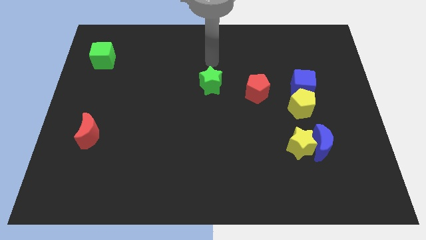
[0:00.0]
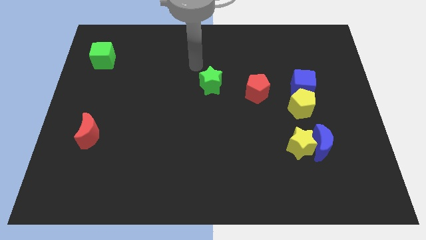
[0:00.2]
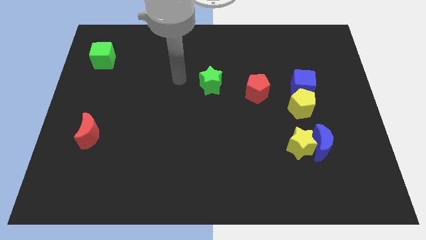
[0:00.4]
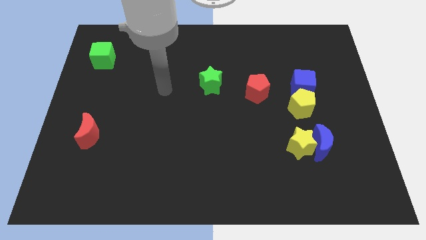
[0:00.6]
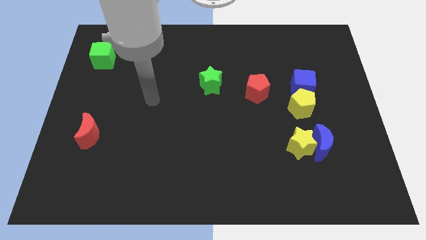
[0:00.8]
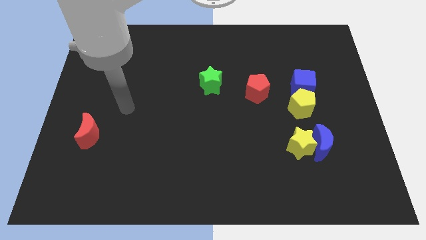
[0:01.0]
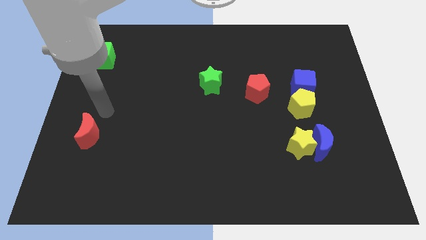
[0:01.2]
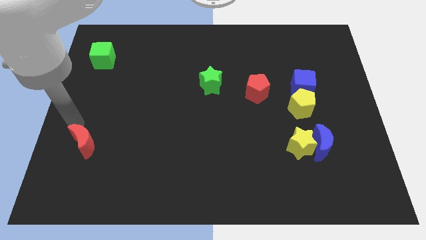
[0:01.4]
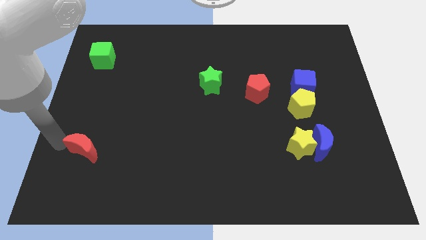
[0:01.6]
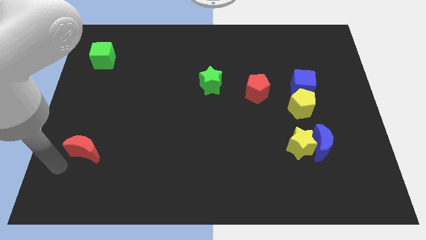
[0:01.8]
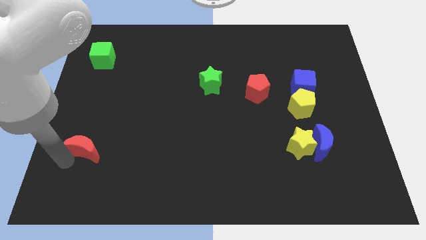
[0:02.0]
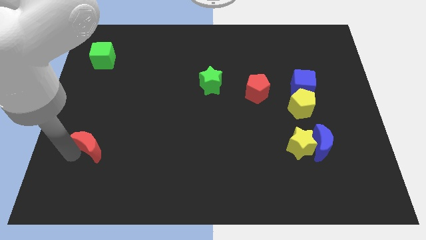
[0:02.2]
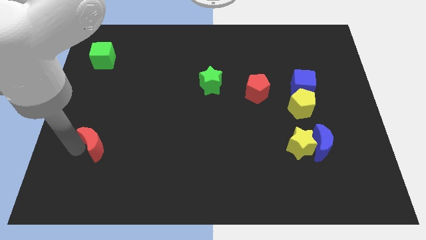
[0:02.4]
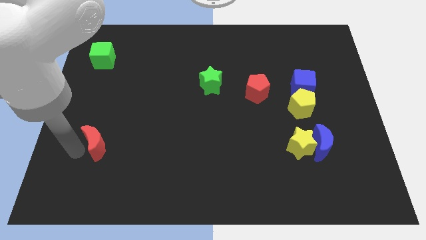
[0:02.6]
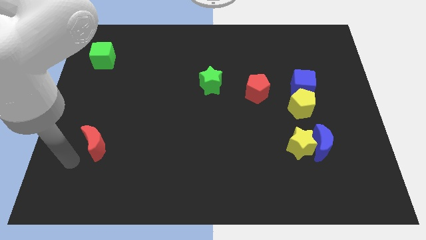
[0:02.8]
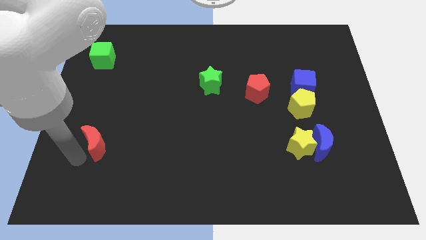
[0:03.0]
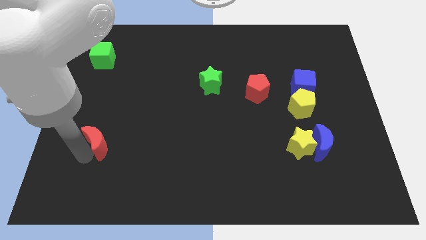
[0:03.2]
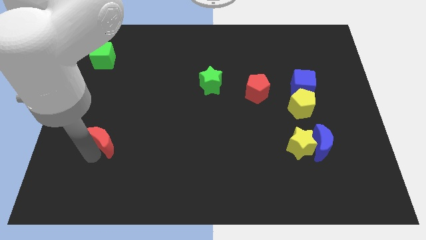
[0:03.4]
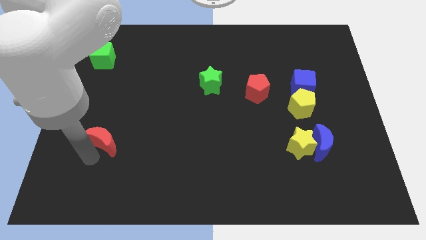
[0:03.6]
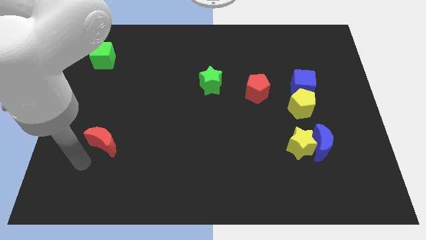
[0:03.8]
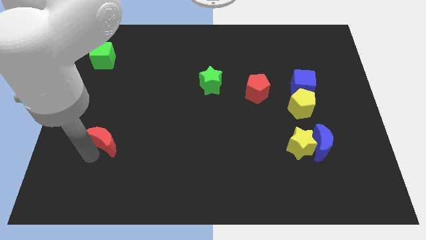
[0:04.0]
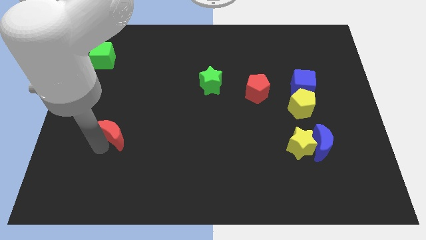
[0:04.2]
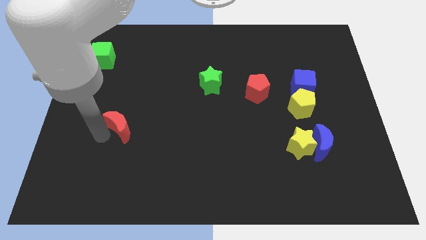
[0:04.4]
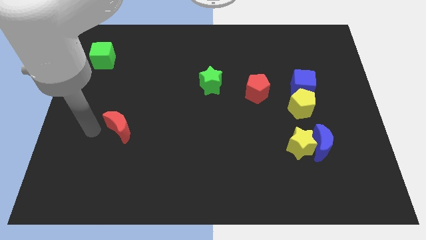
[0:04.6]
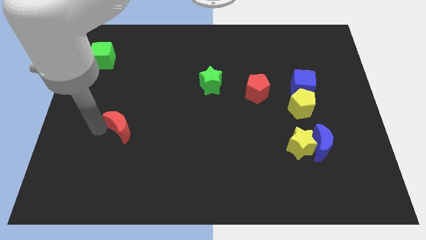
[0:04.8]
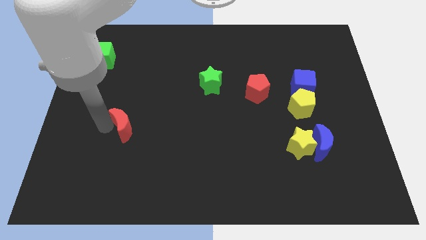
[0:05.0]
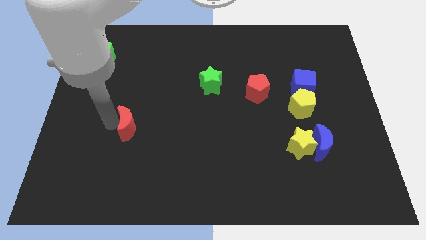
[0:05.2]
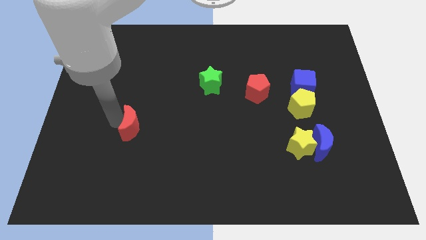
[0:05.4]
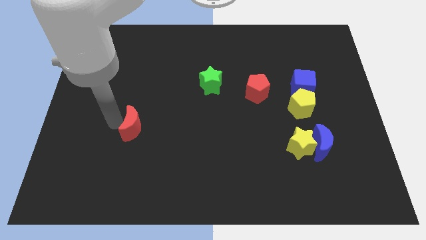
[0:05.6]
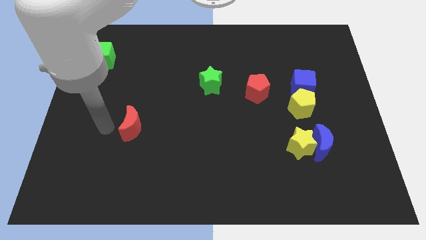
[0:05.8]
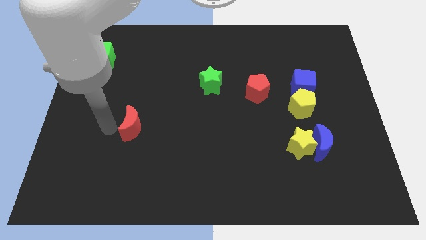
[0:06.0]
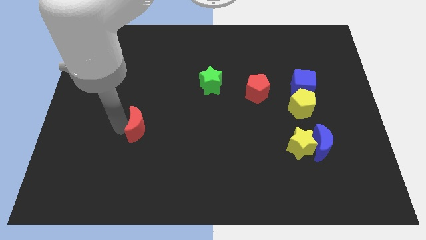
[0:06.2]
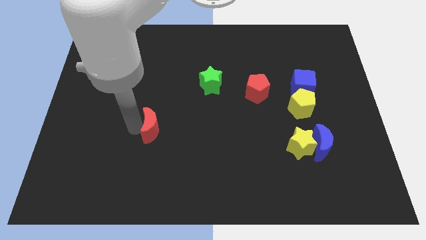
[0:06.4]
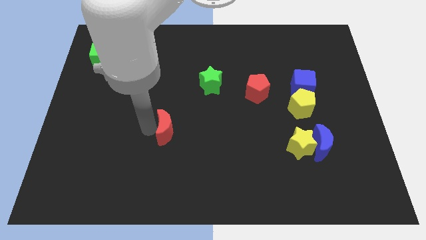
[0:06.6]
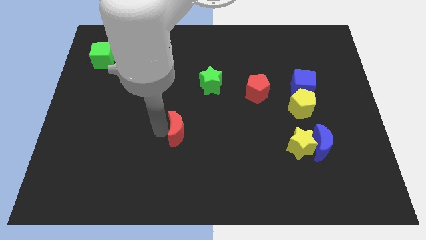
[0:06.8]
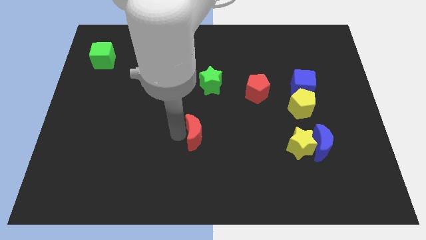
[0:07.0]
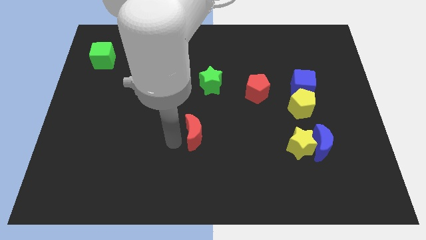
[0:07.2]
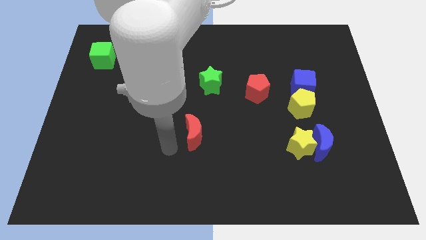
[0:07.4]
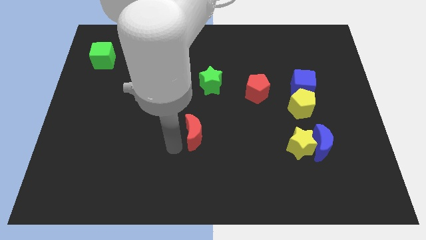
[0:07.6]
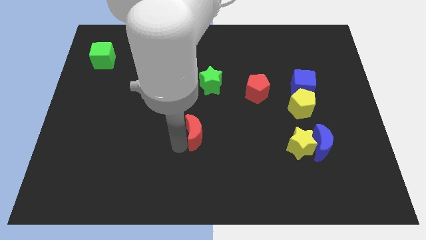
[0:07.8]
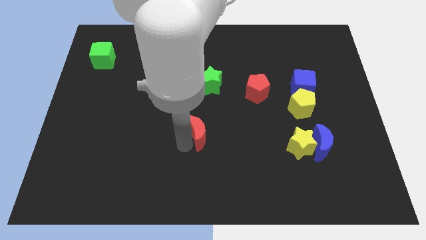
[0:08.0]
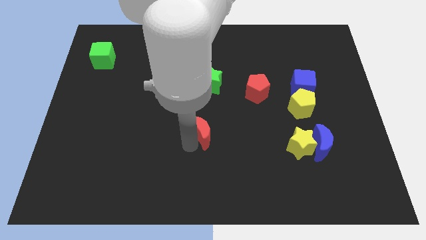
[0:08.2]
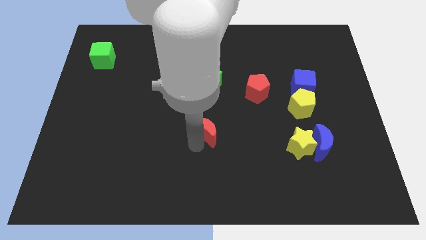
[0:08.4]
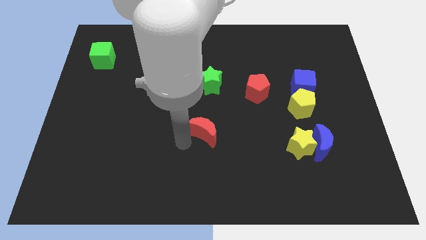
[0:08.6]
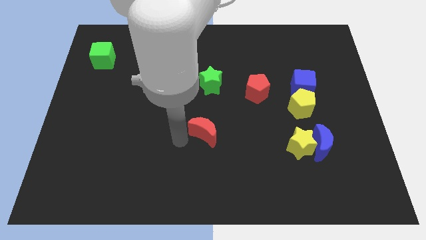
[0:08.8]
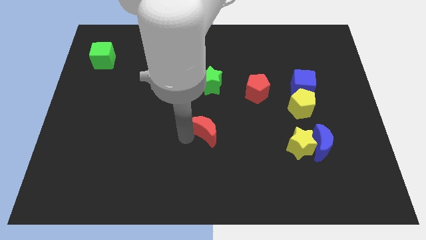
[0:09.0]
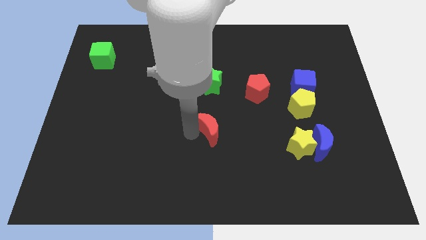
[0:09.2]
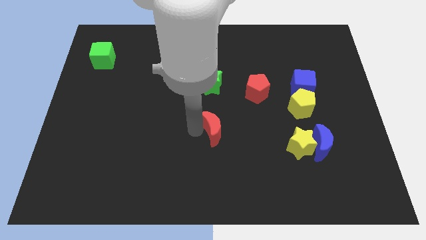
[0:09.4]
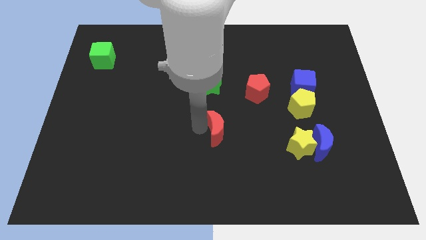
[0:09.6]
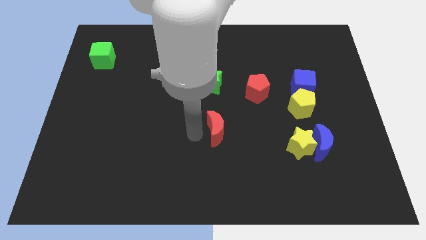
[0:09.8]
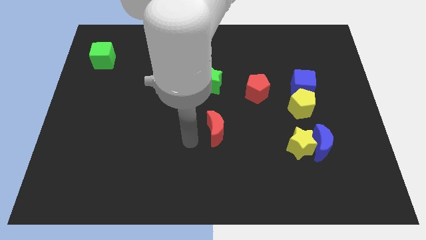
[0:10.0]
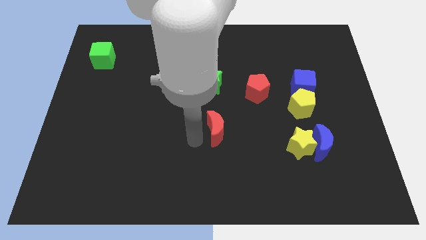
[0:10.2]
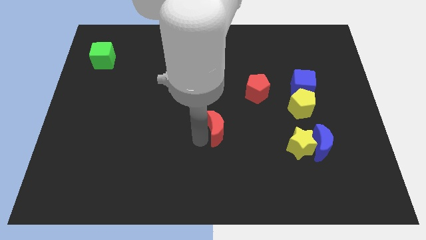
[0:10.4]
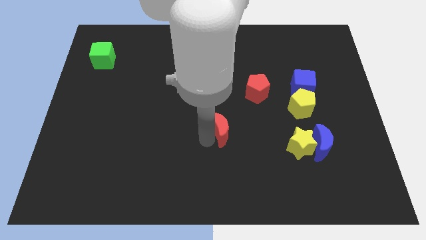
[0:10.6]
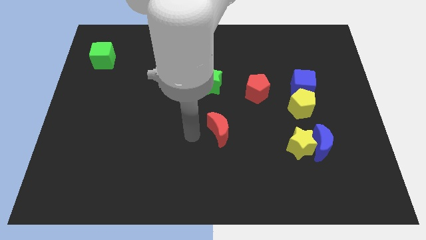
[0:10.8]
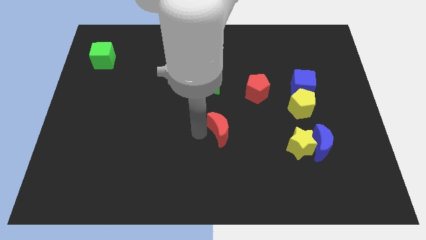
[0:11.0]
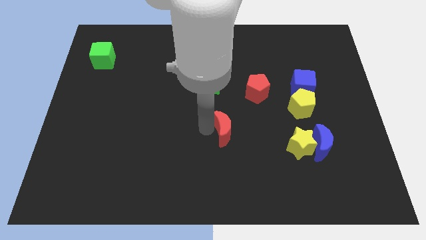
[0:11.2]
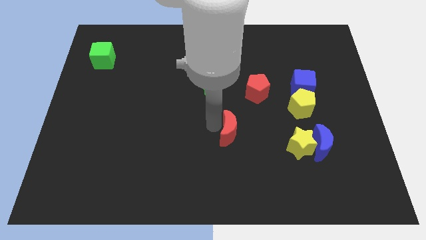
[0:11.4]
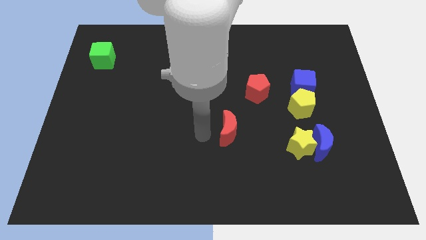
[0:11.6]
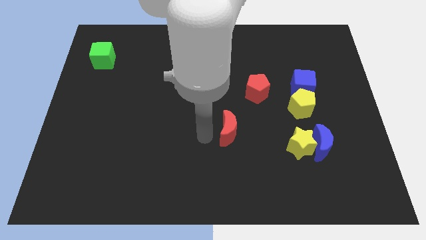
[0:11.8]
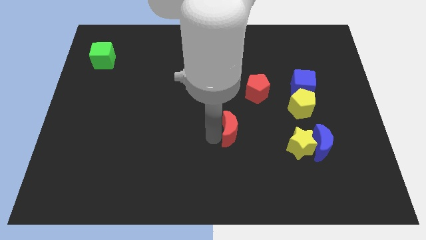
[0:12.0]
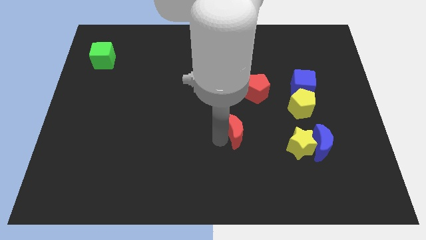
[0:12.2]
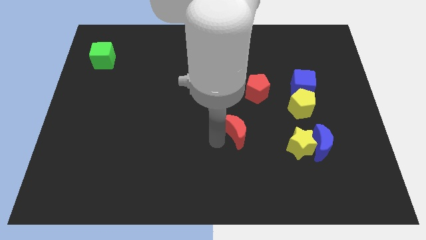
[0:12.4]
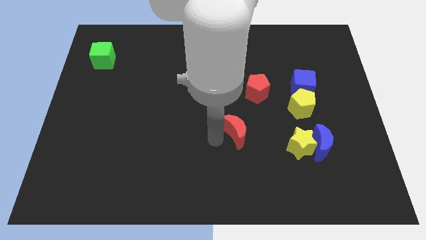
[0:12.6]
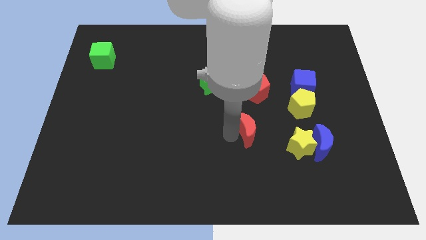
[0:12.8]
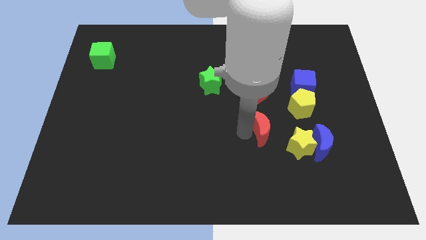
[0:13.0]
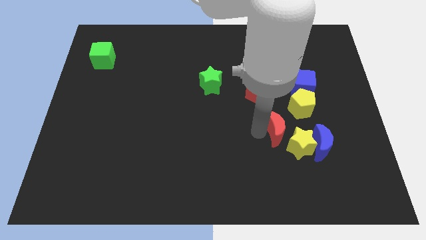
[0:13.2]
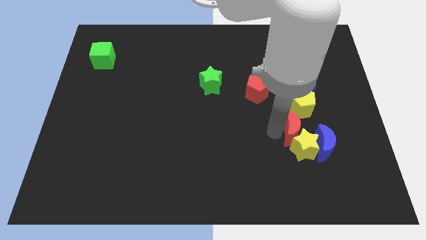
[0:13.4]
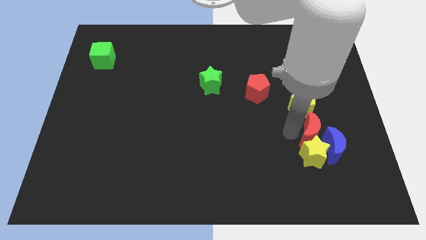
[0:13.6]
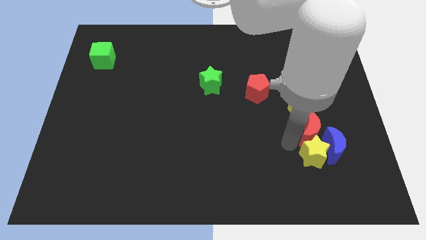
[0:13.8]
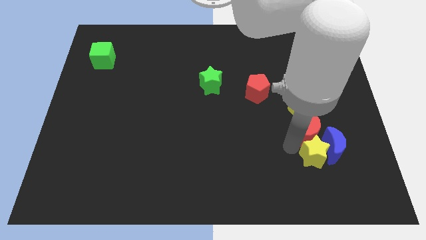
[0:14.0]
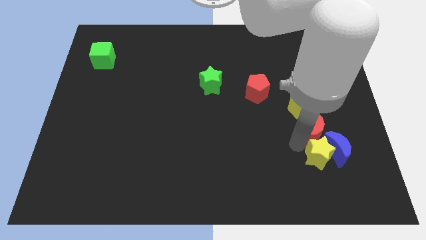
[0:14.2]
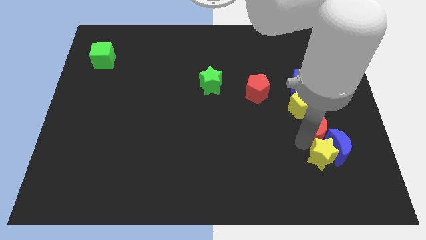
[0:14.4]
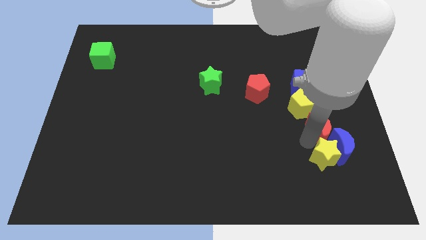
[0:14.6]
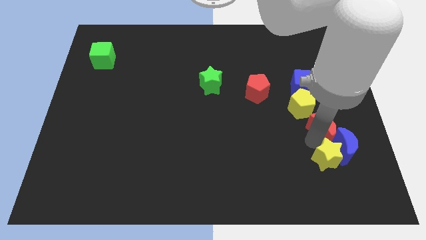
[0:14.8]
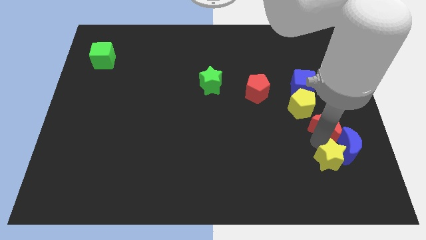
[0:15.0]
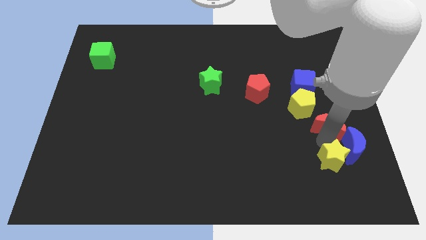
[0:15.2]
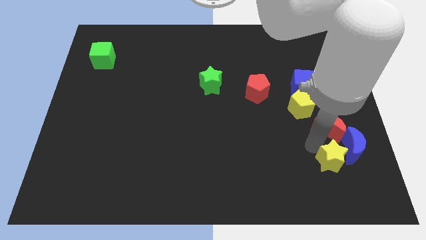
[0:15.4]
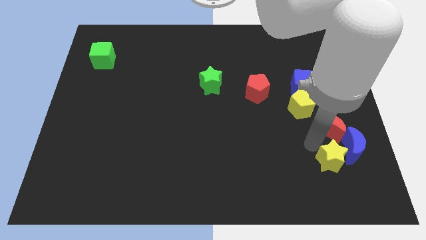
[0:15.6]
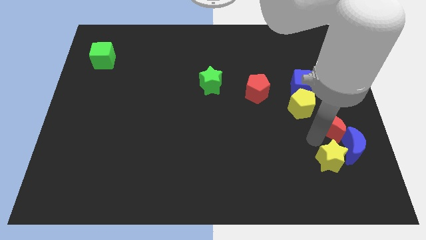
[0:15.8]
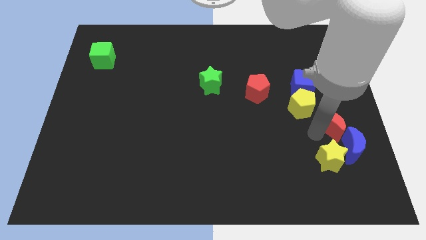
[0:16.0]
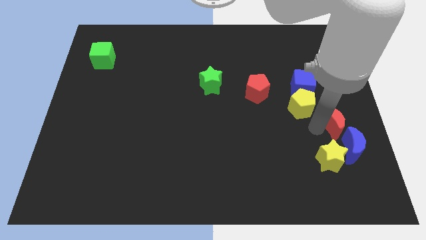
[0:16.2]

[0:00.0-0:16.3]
push the red moon to the right side of the board
